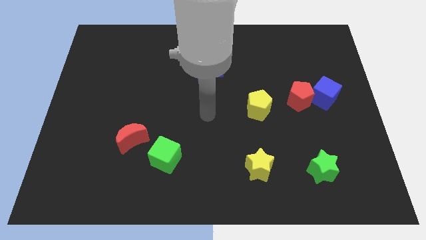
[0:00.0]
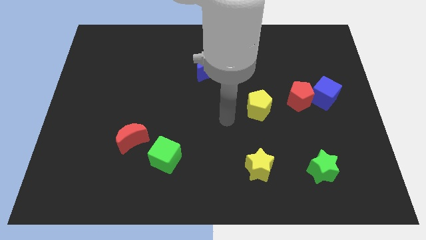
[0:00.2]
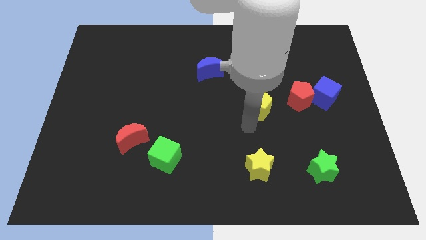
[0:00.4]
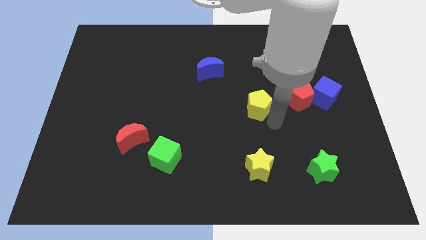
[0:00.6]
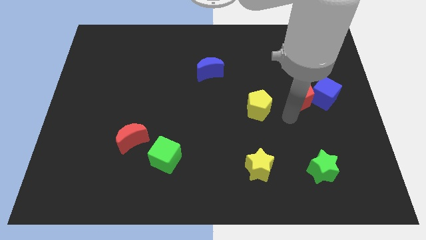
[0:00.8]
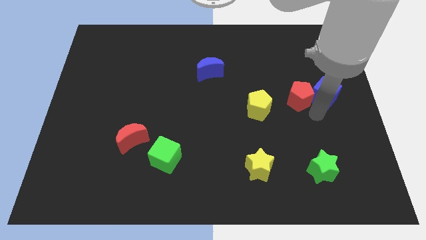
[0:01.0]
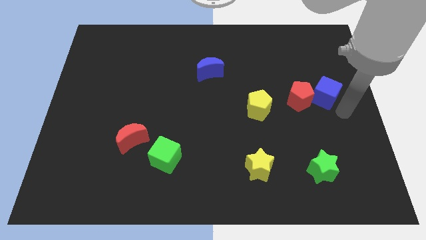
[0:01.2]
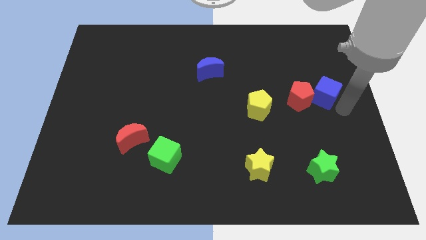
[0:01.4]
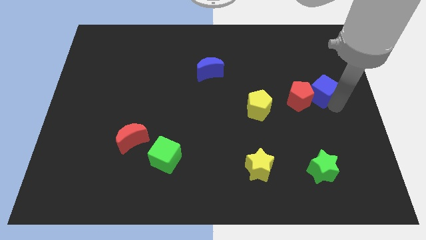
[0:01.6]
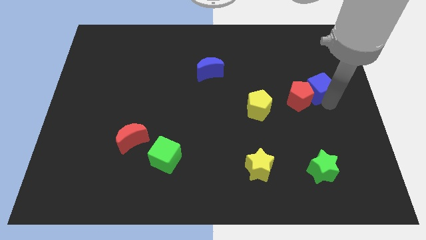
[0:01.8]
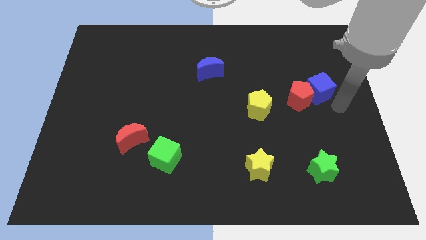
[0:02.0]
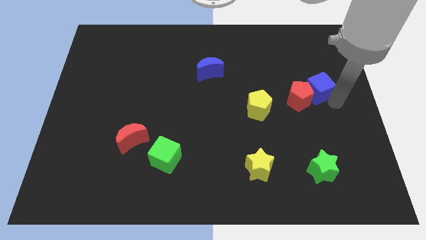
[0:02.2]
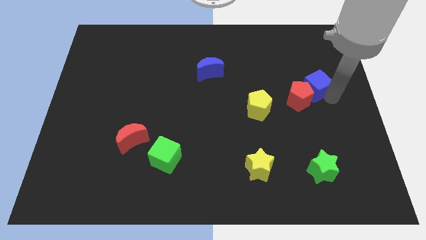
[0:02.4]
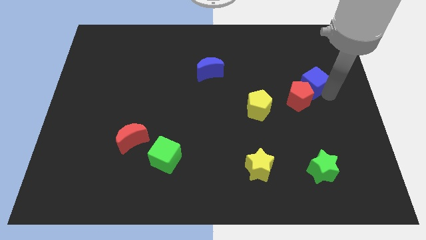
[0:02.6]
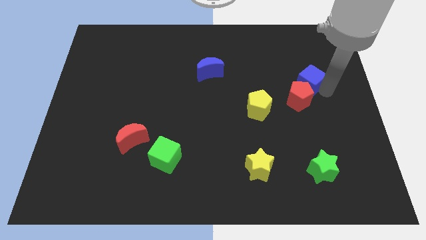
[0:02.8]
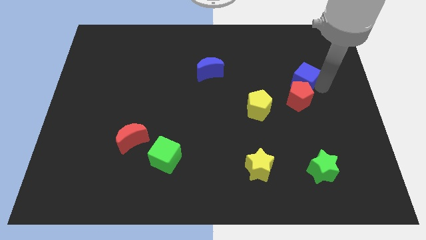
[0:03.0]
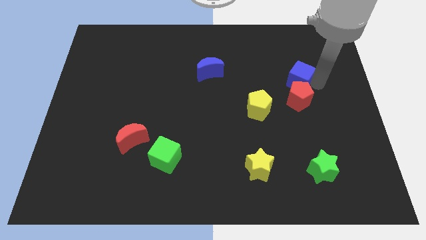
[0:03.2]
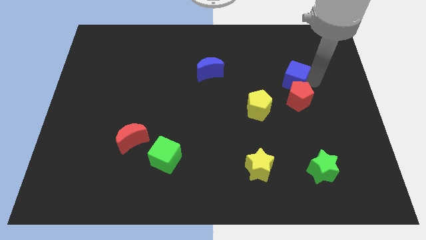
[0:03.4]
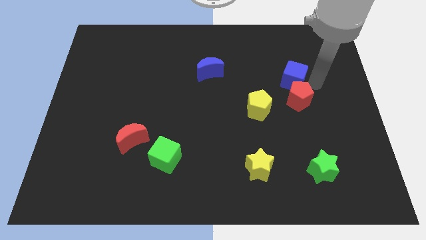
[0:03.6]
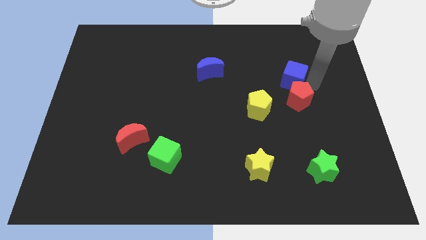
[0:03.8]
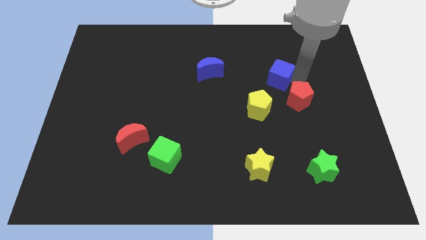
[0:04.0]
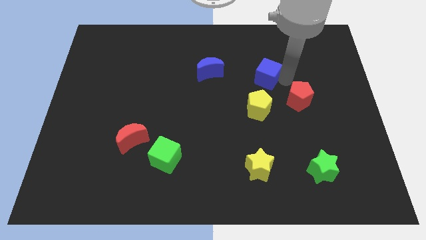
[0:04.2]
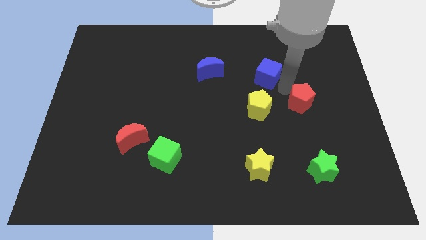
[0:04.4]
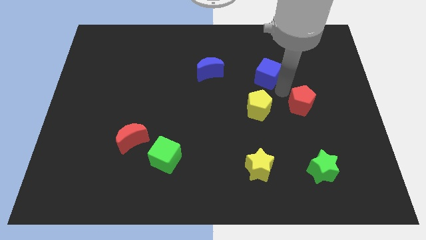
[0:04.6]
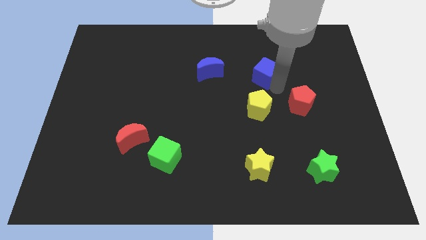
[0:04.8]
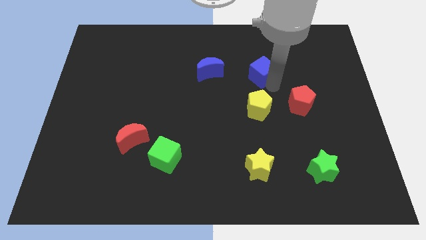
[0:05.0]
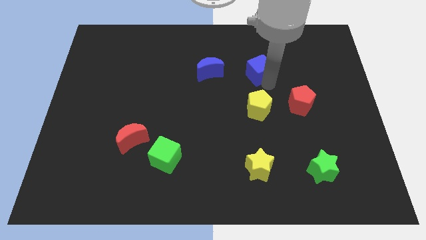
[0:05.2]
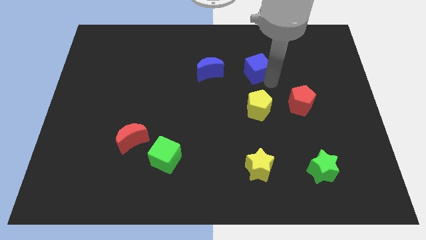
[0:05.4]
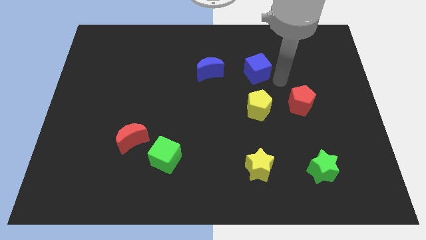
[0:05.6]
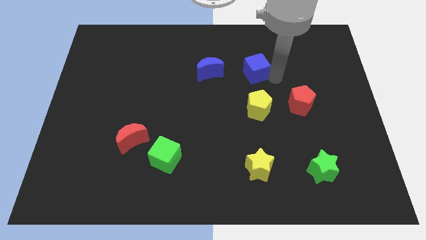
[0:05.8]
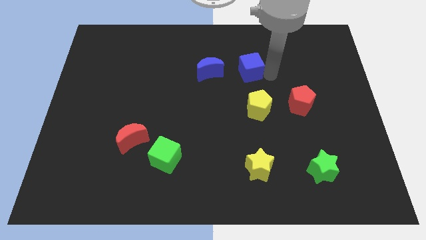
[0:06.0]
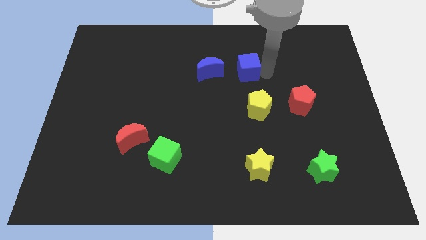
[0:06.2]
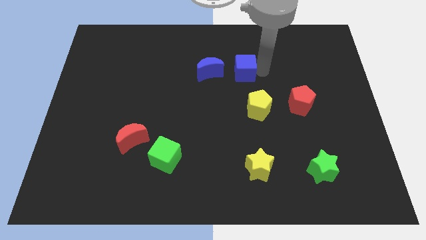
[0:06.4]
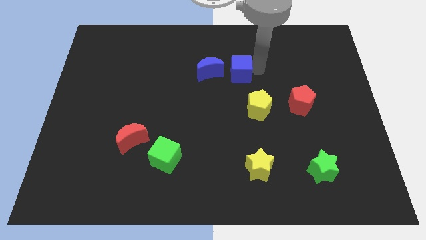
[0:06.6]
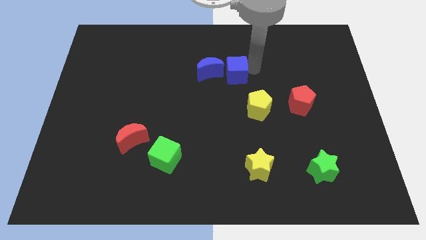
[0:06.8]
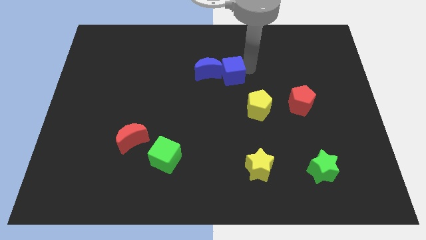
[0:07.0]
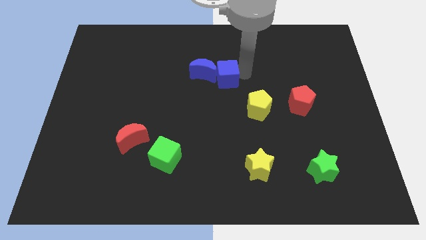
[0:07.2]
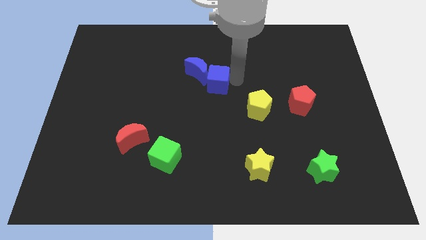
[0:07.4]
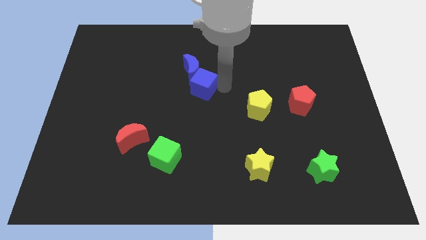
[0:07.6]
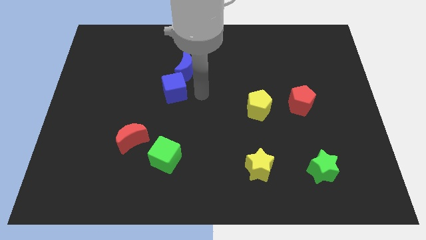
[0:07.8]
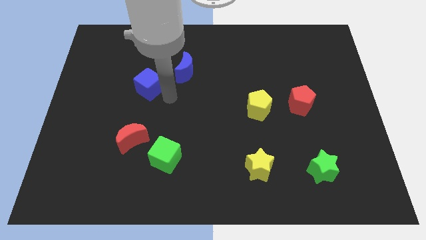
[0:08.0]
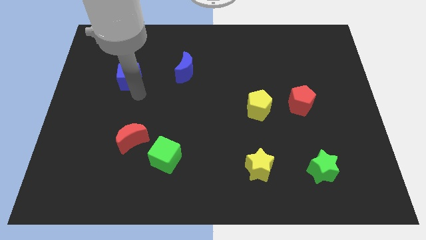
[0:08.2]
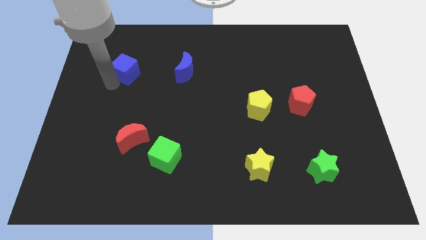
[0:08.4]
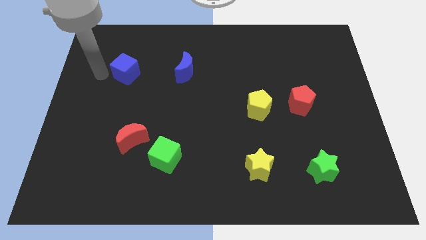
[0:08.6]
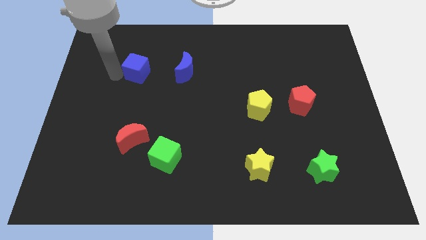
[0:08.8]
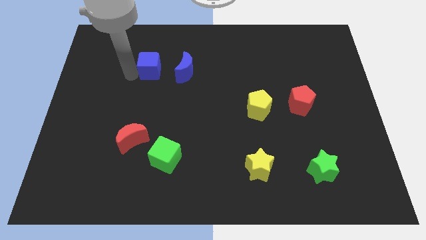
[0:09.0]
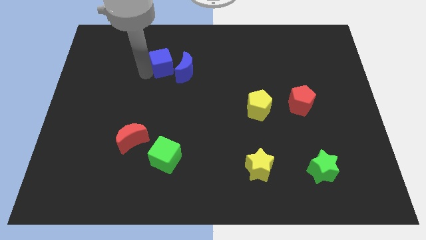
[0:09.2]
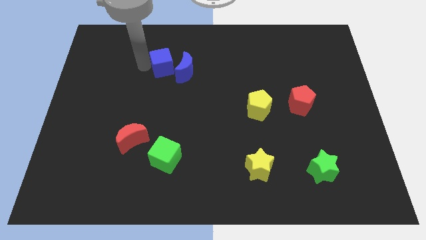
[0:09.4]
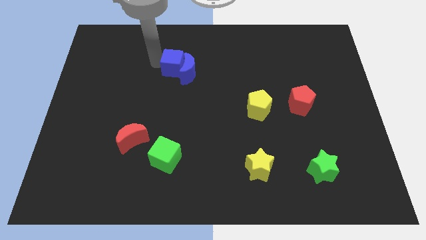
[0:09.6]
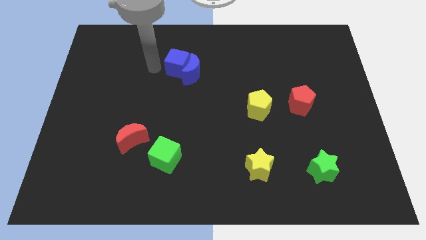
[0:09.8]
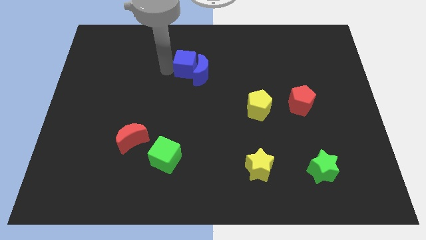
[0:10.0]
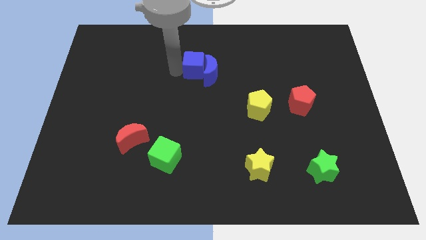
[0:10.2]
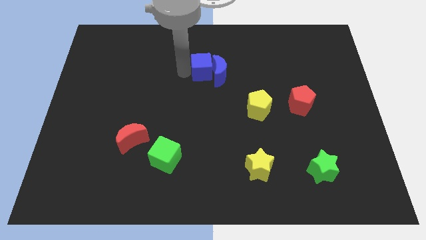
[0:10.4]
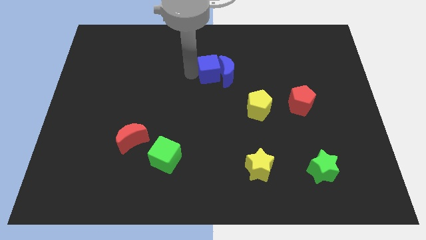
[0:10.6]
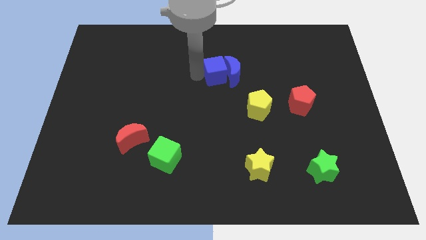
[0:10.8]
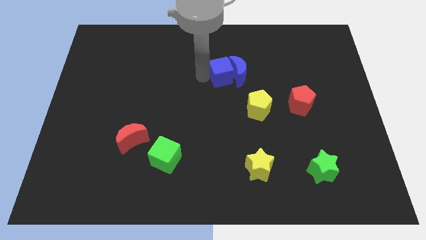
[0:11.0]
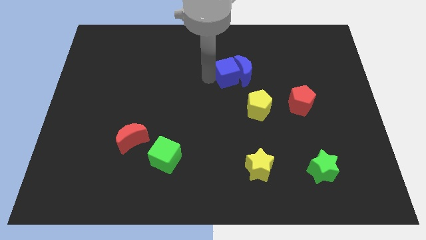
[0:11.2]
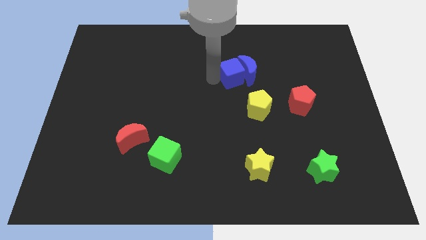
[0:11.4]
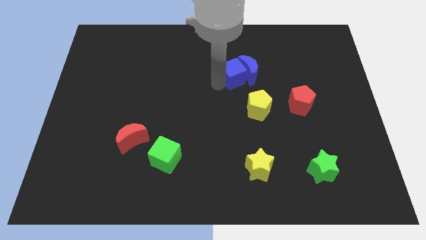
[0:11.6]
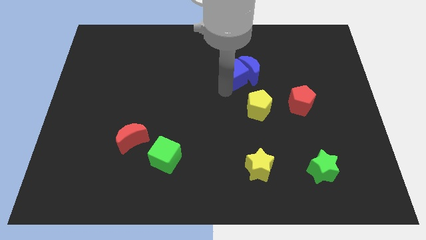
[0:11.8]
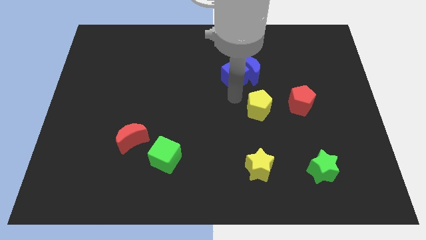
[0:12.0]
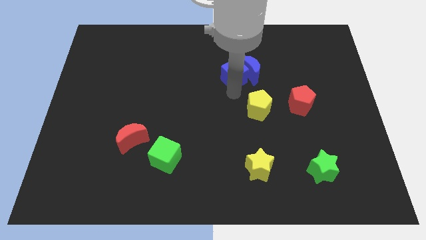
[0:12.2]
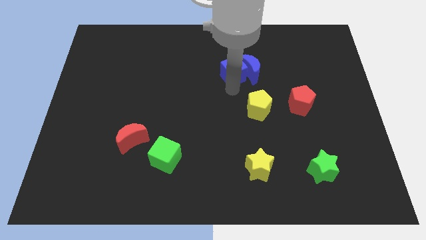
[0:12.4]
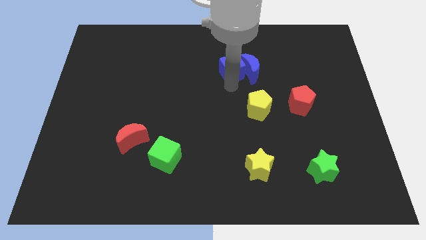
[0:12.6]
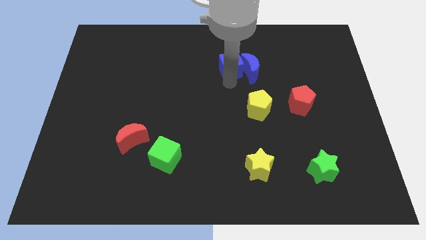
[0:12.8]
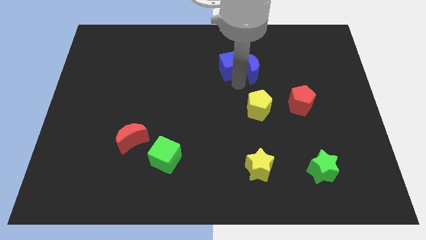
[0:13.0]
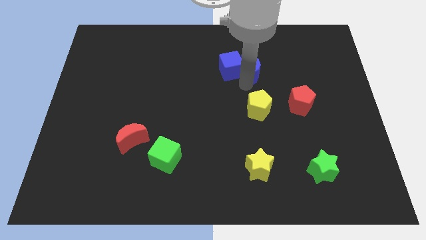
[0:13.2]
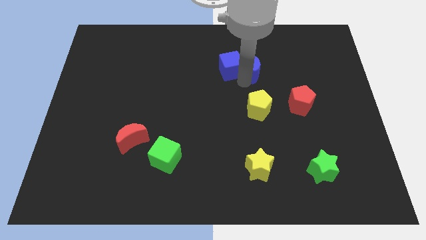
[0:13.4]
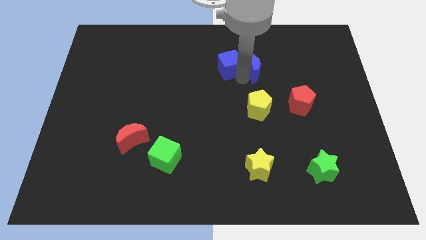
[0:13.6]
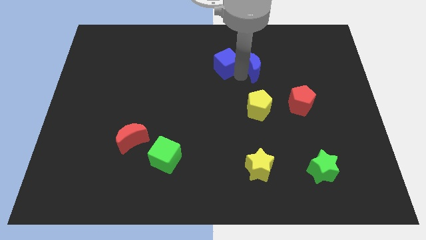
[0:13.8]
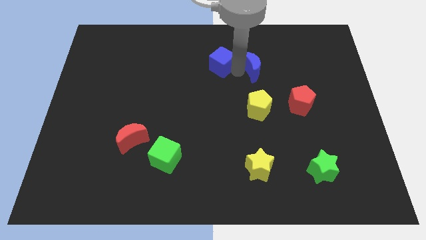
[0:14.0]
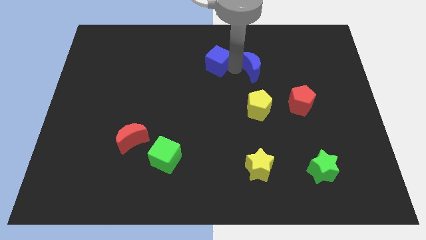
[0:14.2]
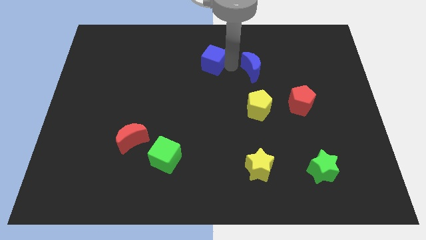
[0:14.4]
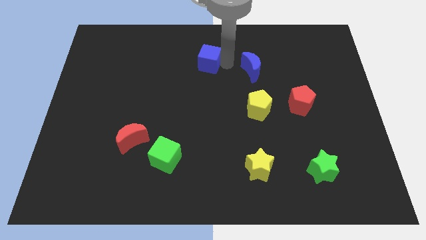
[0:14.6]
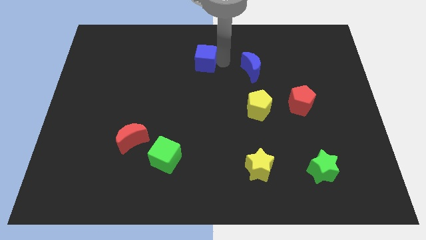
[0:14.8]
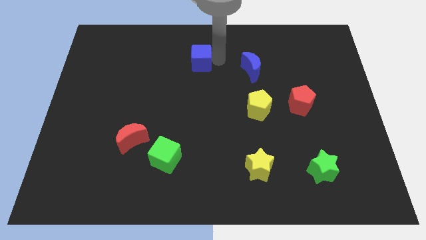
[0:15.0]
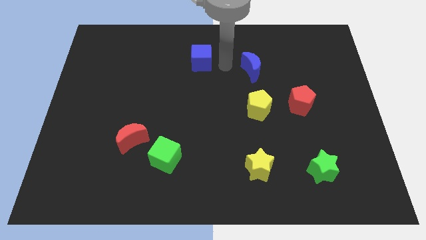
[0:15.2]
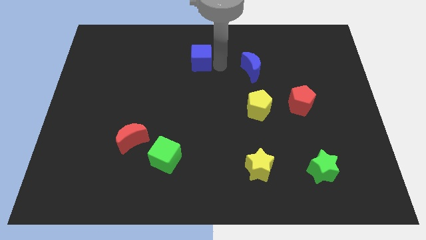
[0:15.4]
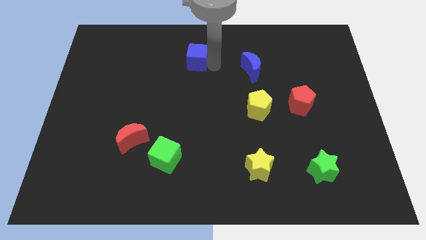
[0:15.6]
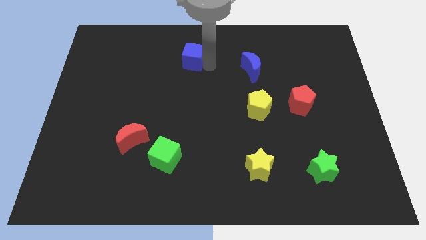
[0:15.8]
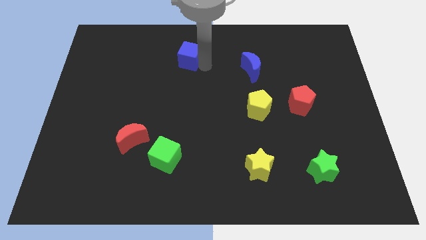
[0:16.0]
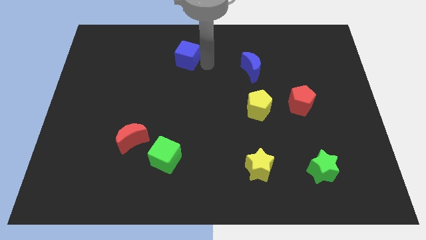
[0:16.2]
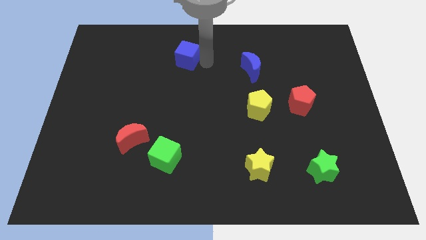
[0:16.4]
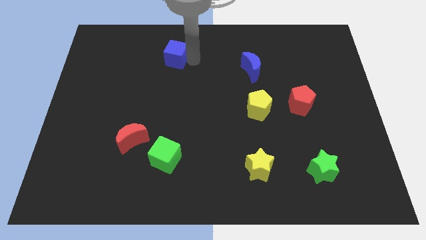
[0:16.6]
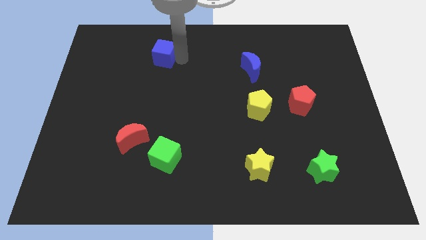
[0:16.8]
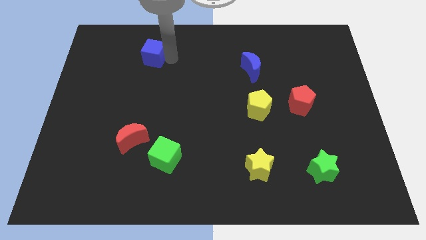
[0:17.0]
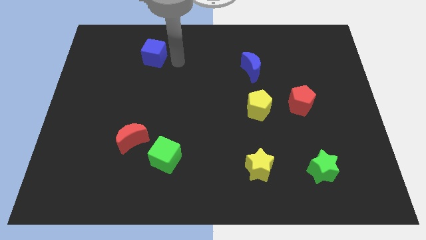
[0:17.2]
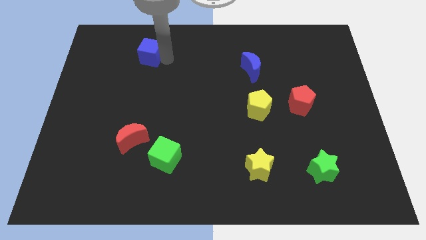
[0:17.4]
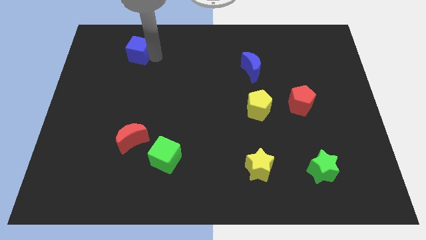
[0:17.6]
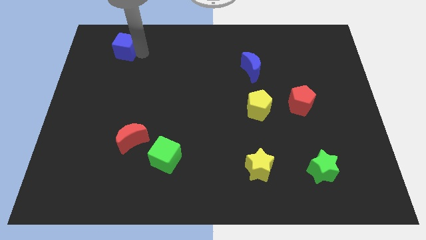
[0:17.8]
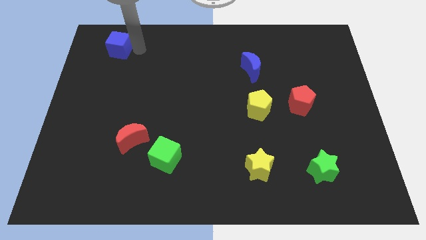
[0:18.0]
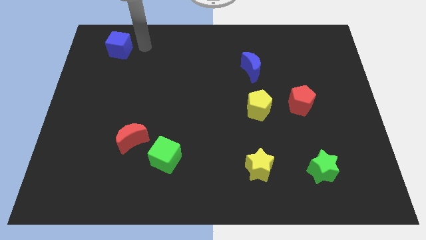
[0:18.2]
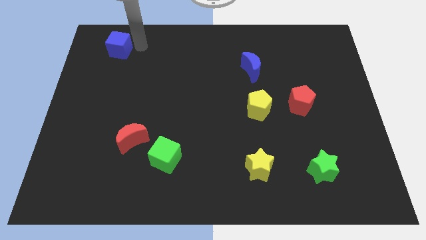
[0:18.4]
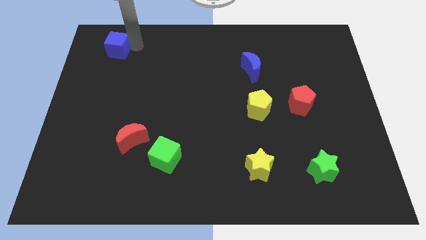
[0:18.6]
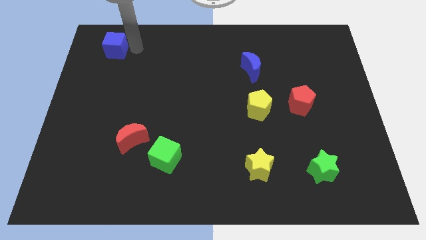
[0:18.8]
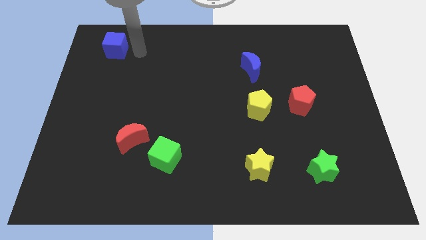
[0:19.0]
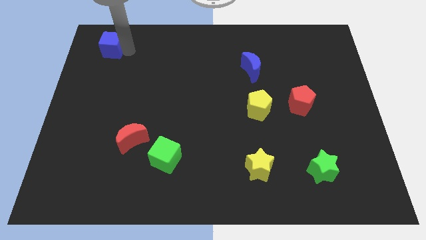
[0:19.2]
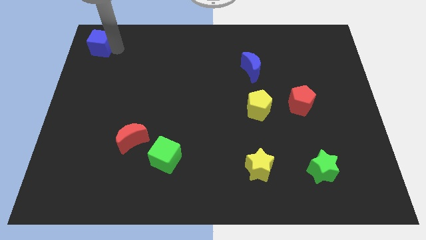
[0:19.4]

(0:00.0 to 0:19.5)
push the blue cube to the upper left corner
